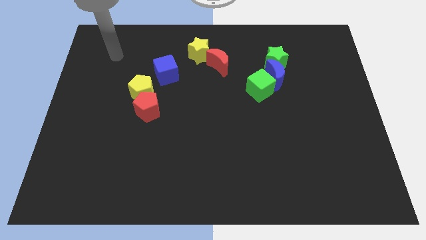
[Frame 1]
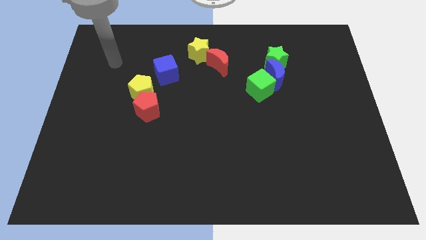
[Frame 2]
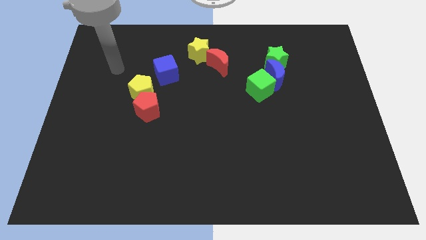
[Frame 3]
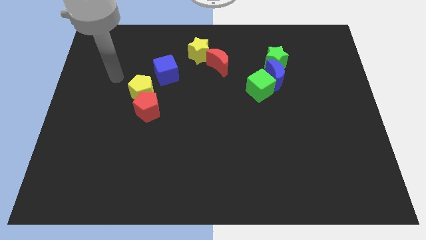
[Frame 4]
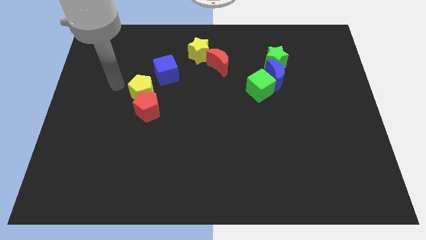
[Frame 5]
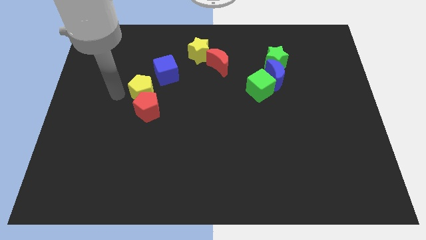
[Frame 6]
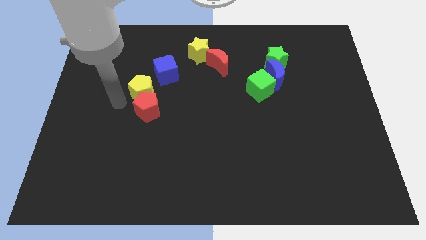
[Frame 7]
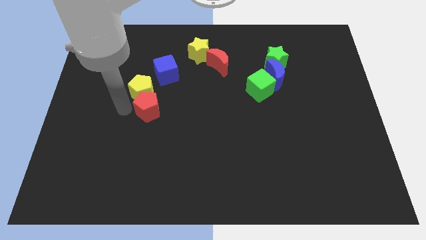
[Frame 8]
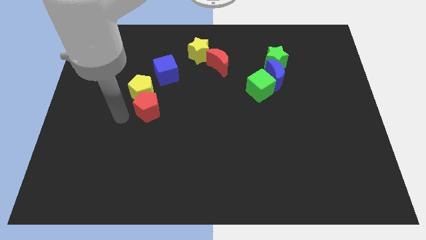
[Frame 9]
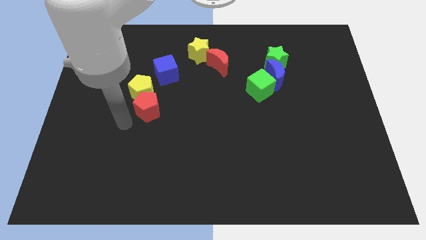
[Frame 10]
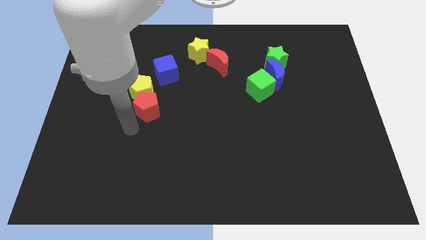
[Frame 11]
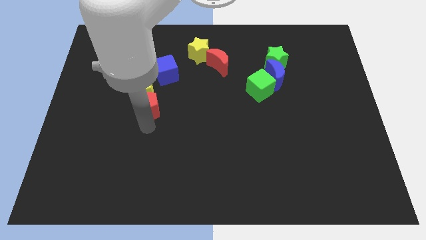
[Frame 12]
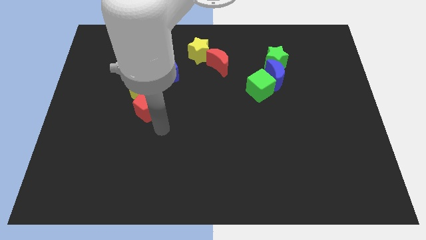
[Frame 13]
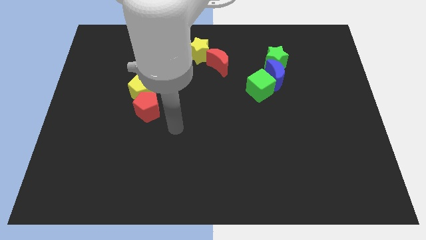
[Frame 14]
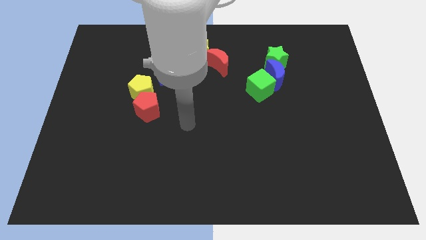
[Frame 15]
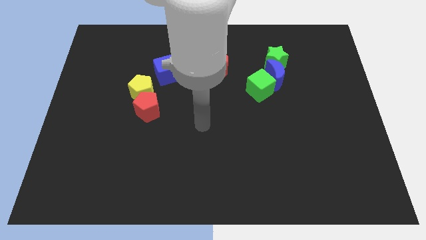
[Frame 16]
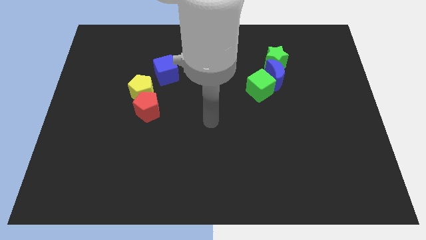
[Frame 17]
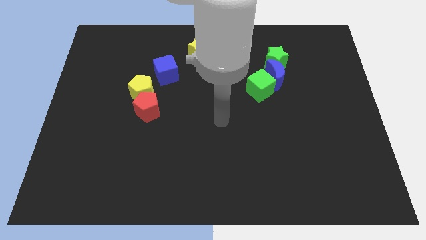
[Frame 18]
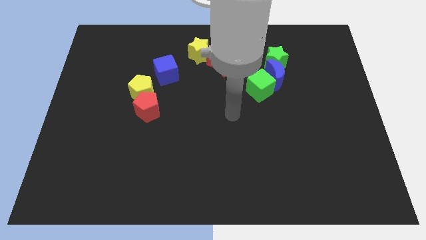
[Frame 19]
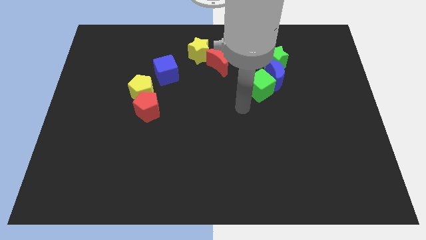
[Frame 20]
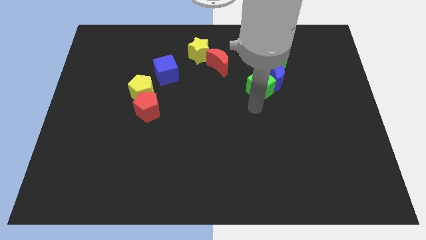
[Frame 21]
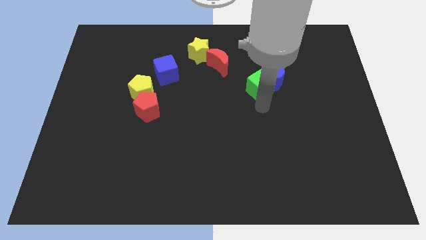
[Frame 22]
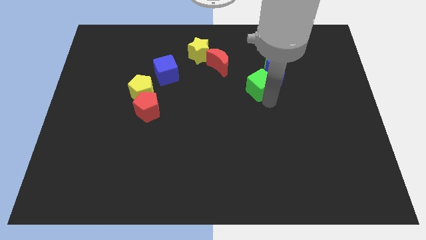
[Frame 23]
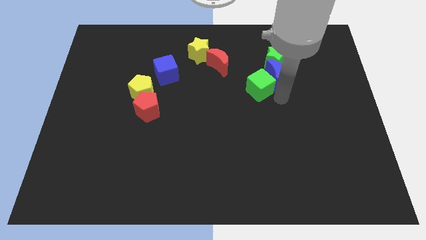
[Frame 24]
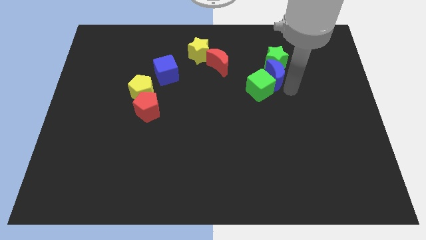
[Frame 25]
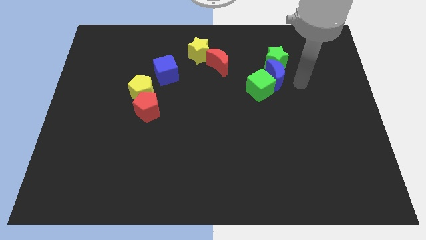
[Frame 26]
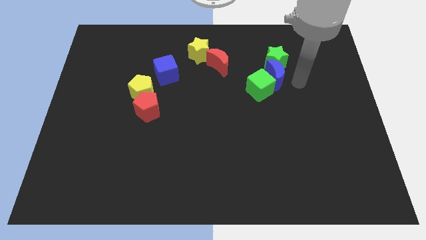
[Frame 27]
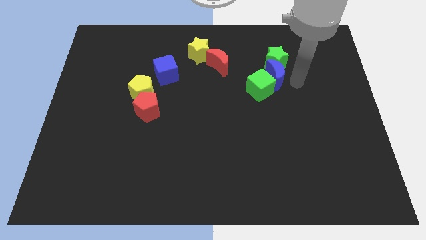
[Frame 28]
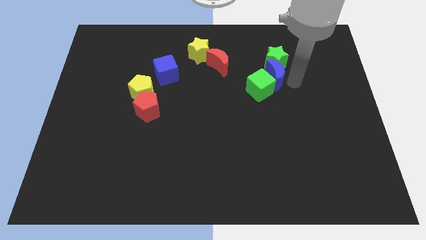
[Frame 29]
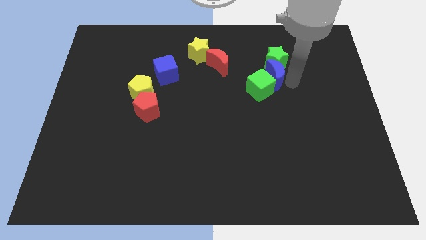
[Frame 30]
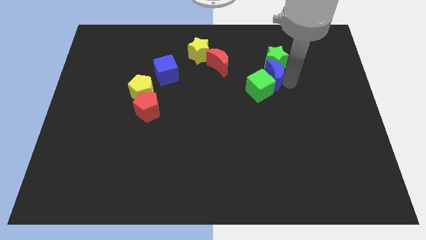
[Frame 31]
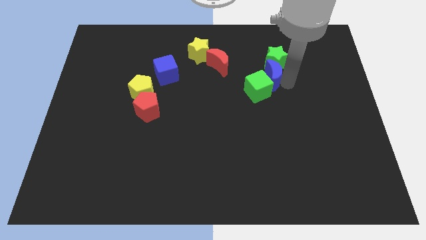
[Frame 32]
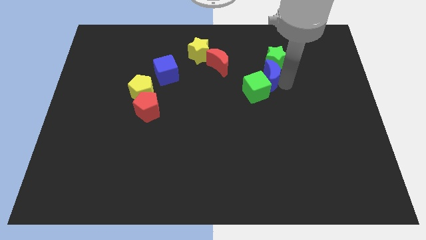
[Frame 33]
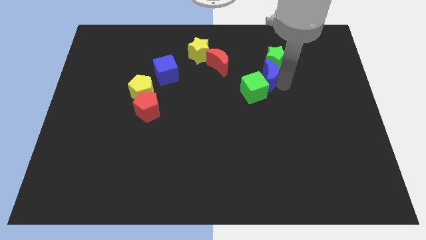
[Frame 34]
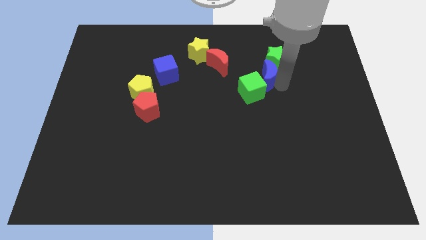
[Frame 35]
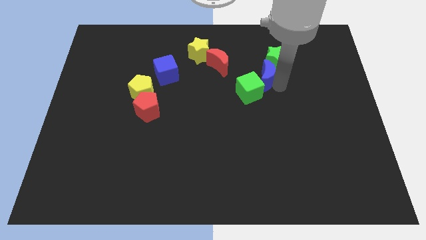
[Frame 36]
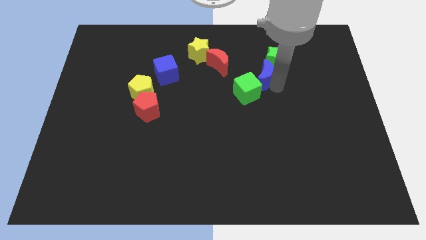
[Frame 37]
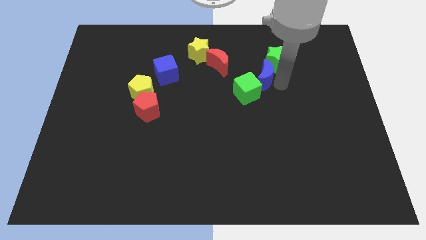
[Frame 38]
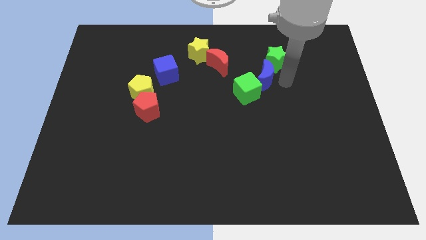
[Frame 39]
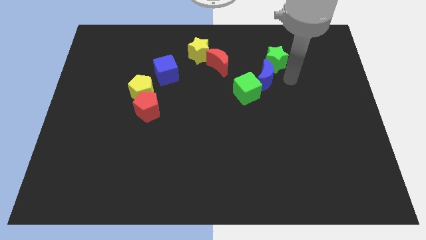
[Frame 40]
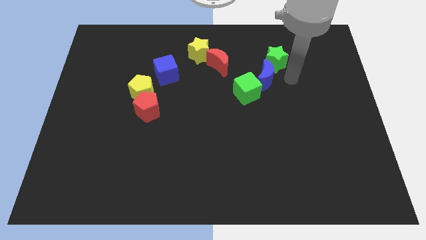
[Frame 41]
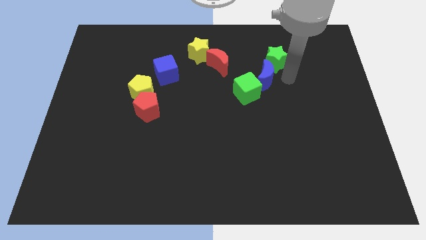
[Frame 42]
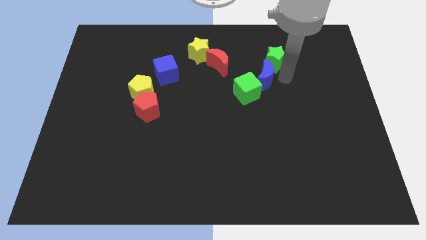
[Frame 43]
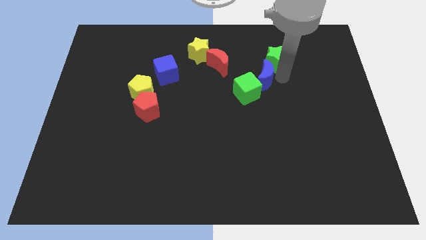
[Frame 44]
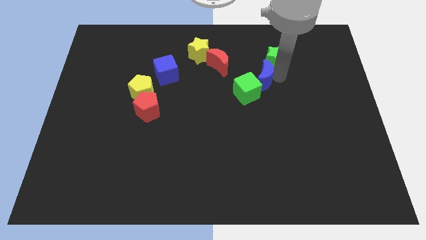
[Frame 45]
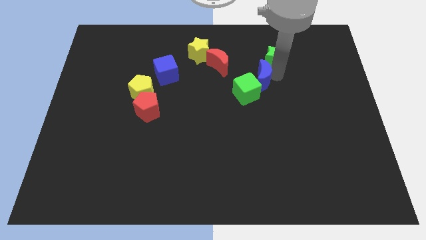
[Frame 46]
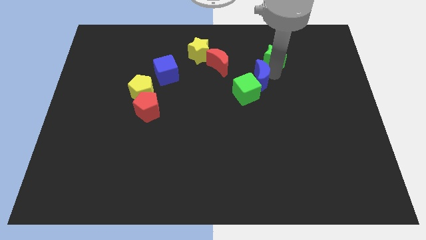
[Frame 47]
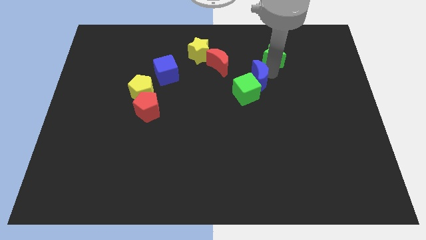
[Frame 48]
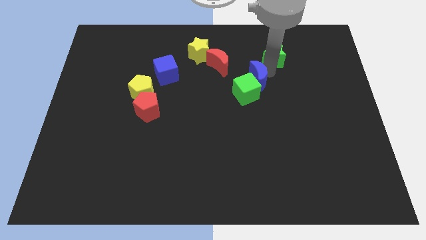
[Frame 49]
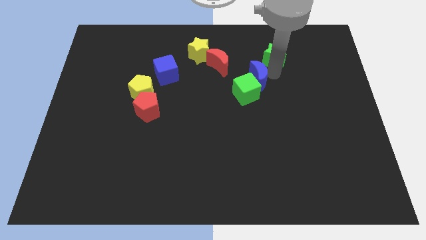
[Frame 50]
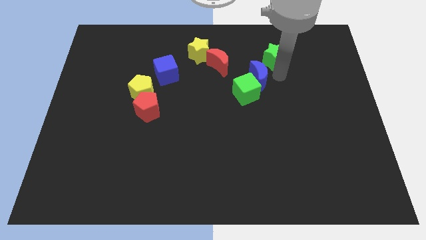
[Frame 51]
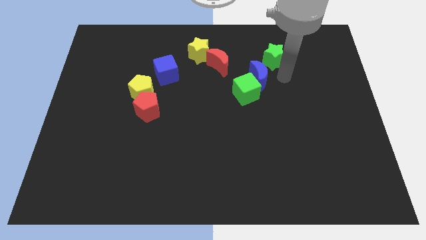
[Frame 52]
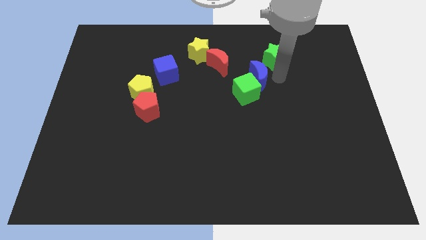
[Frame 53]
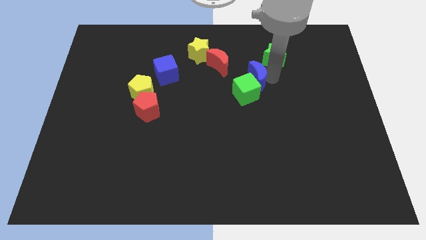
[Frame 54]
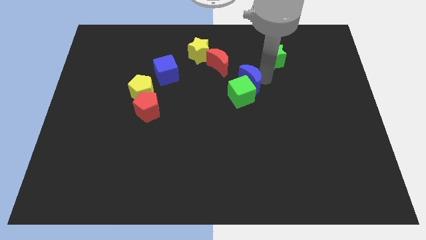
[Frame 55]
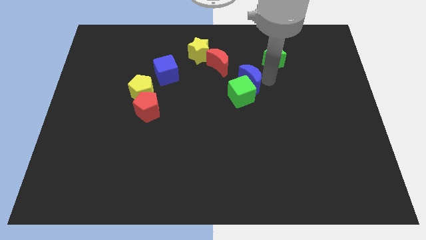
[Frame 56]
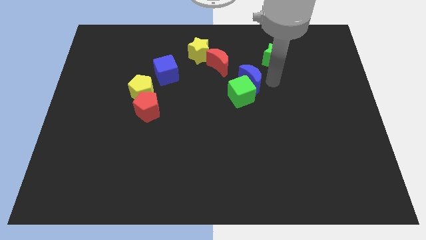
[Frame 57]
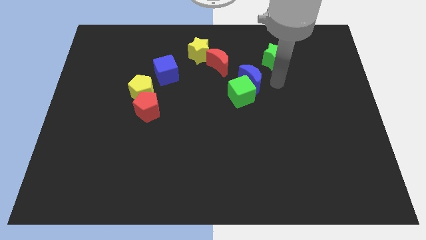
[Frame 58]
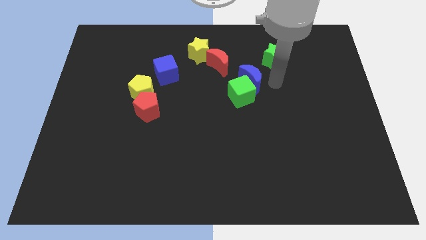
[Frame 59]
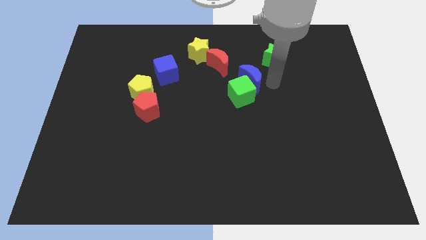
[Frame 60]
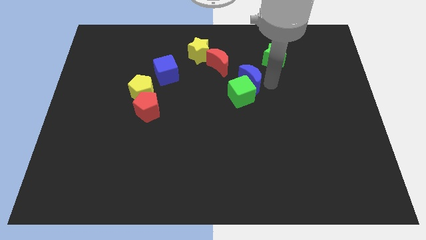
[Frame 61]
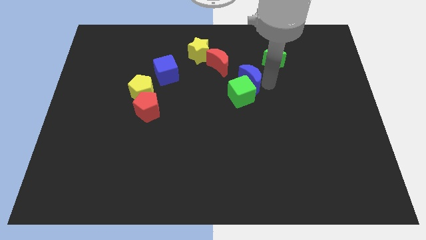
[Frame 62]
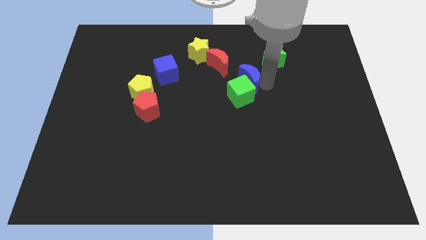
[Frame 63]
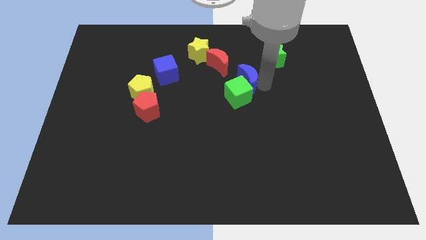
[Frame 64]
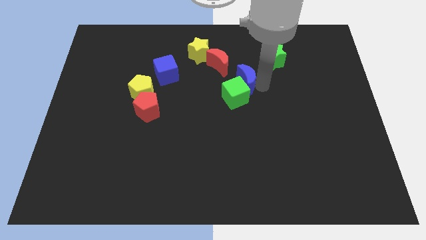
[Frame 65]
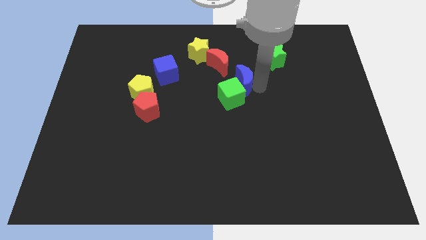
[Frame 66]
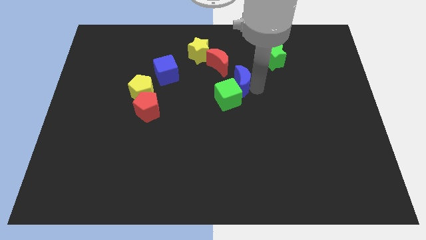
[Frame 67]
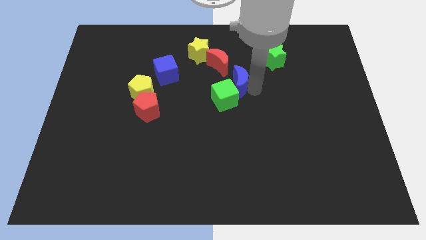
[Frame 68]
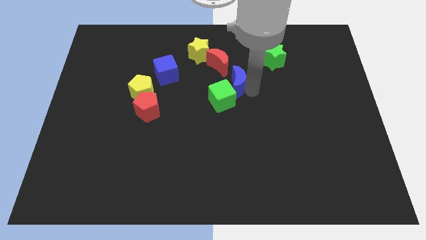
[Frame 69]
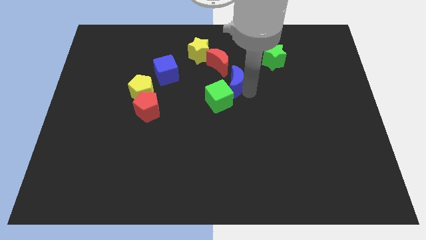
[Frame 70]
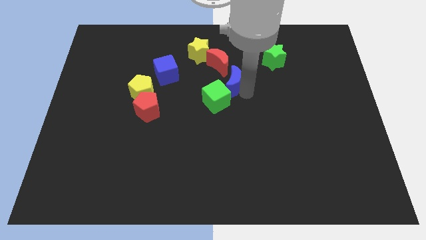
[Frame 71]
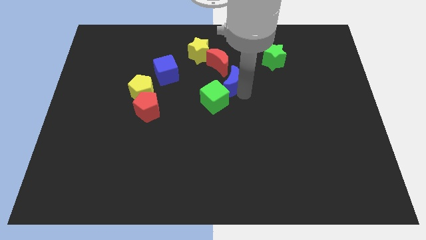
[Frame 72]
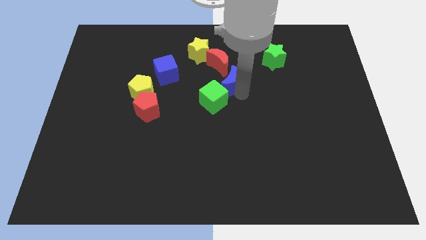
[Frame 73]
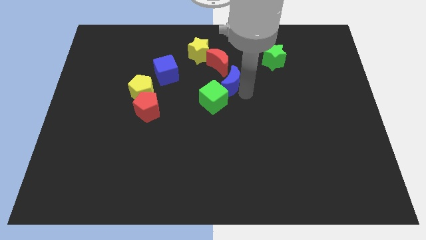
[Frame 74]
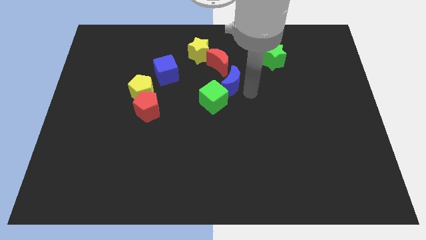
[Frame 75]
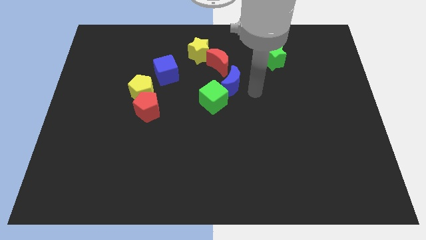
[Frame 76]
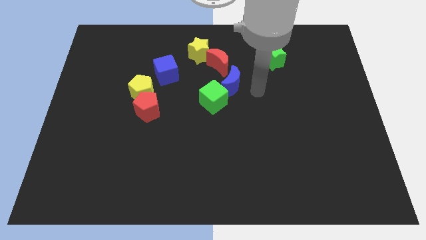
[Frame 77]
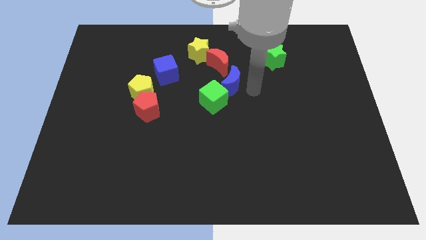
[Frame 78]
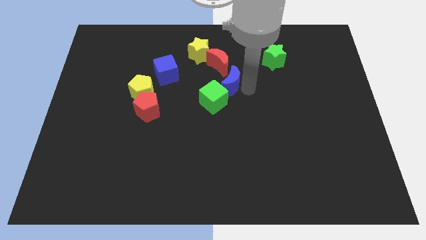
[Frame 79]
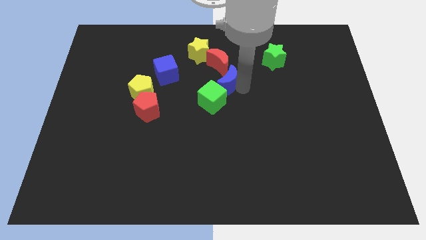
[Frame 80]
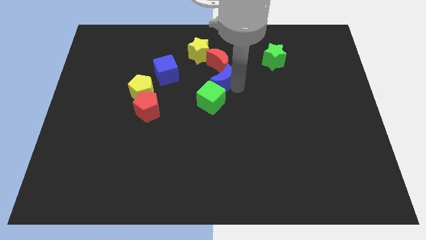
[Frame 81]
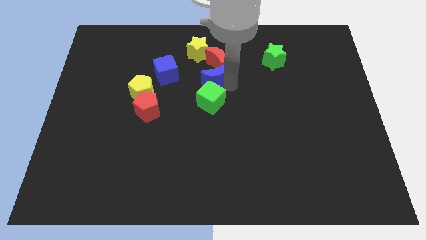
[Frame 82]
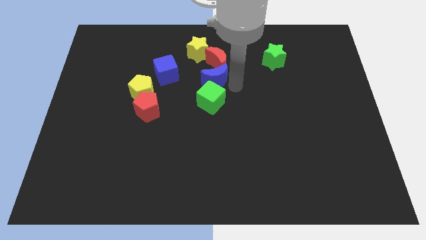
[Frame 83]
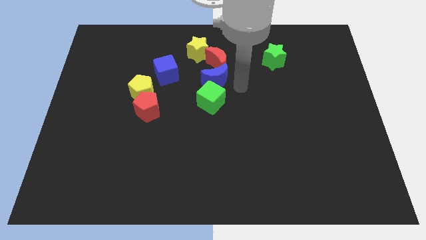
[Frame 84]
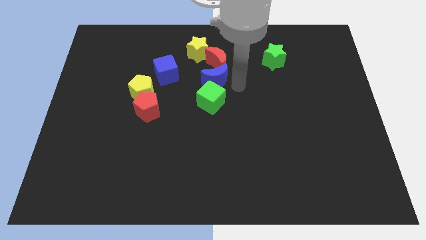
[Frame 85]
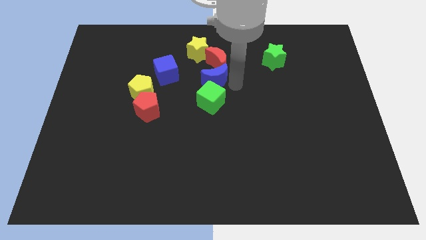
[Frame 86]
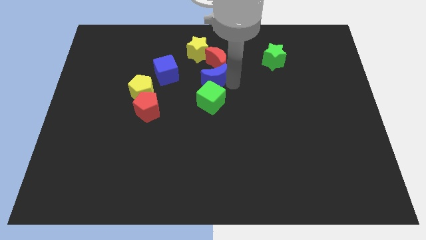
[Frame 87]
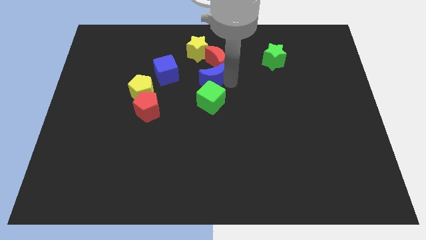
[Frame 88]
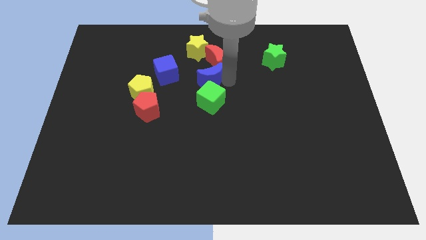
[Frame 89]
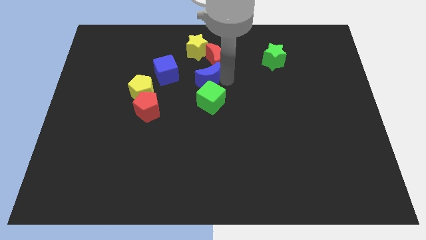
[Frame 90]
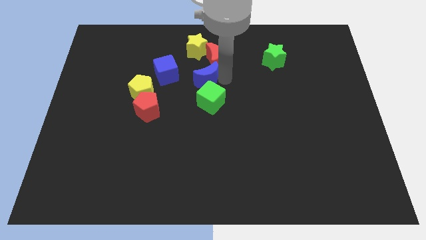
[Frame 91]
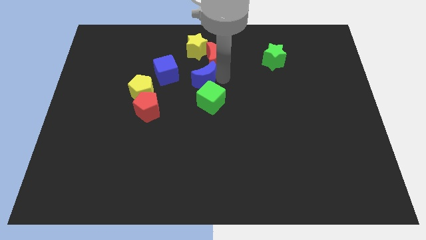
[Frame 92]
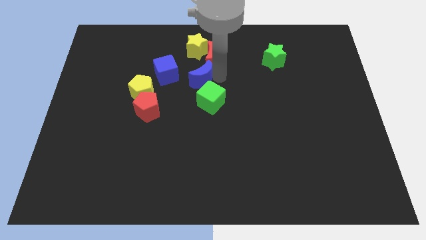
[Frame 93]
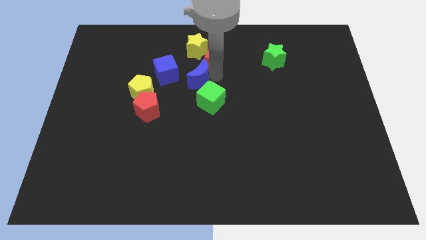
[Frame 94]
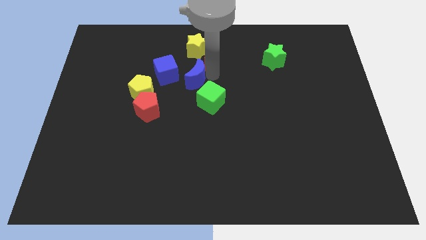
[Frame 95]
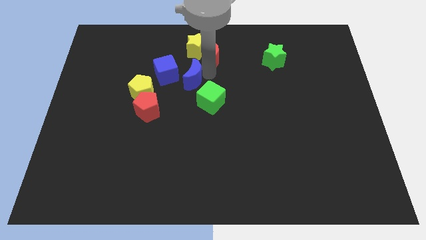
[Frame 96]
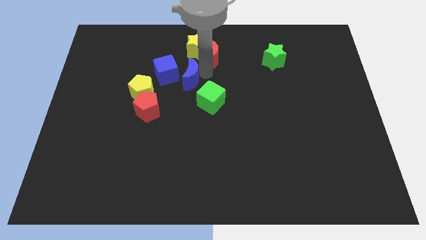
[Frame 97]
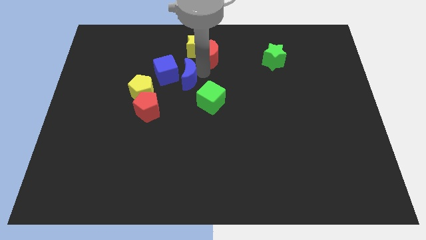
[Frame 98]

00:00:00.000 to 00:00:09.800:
push the blue moon next to the blue cube
